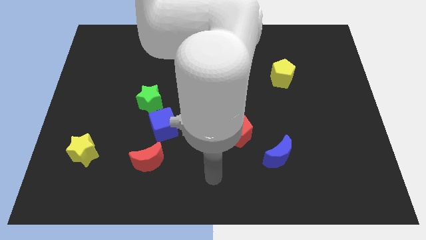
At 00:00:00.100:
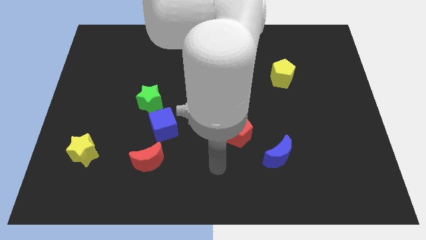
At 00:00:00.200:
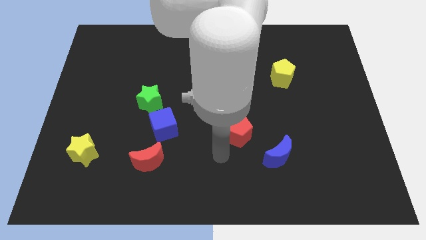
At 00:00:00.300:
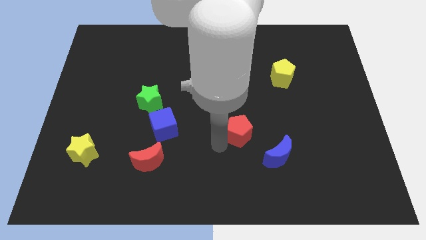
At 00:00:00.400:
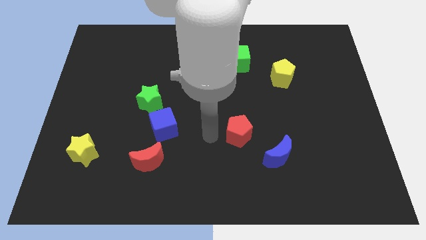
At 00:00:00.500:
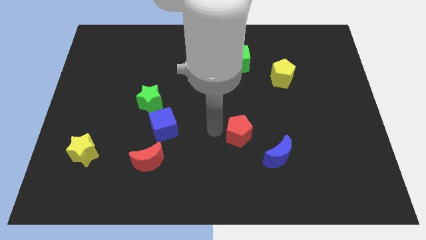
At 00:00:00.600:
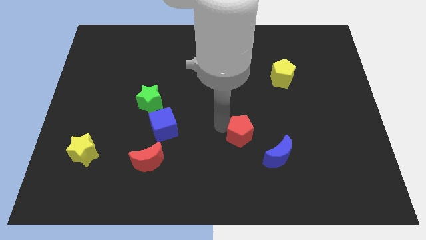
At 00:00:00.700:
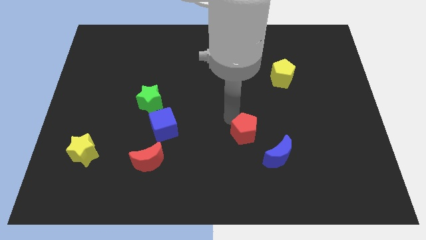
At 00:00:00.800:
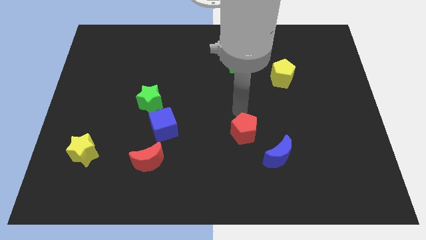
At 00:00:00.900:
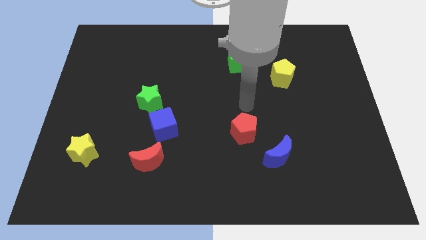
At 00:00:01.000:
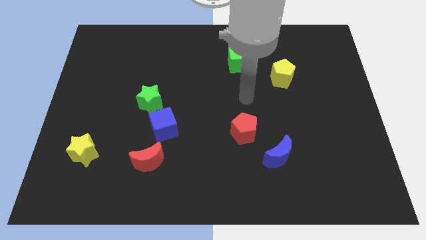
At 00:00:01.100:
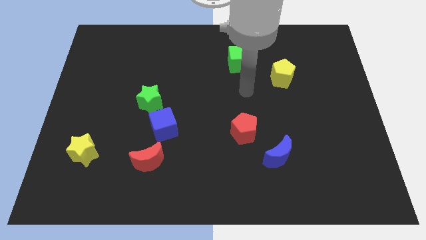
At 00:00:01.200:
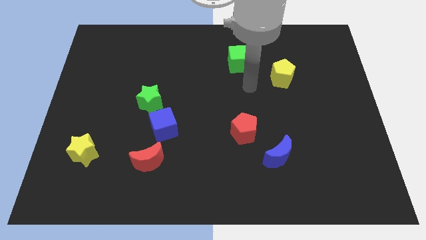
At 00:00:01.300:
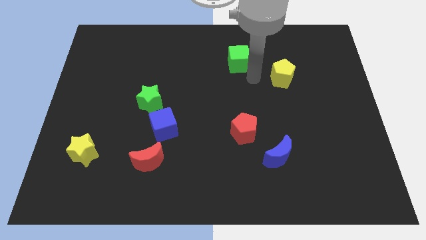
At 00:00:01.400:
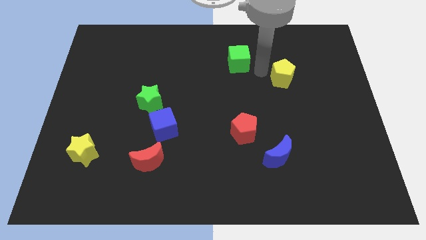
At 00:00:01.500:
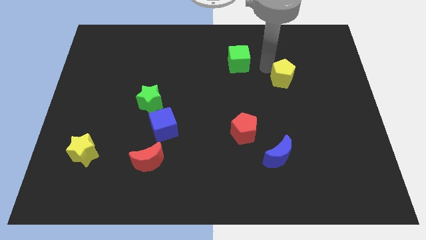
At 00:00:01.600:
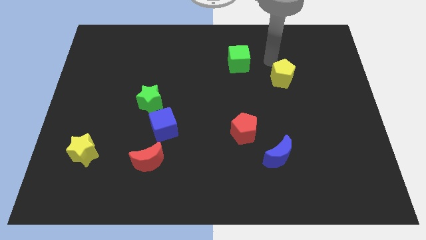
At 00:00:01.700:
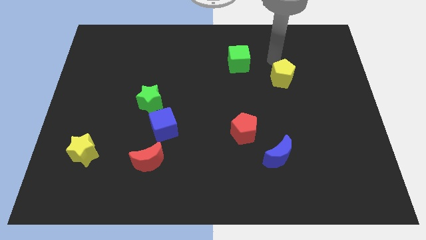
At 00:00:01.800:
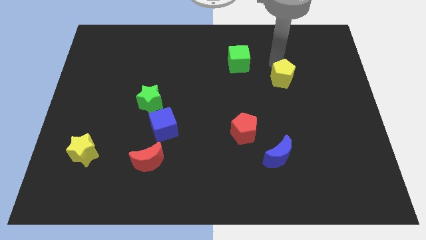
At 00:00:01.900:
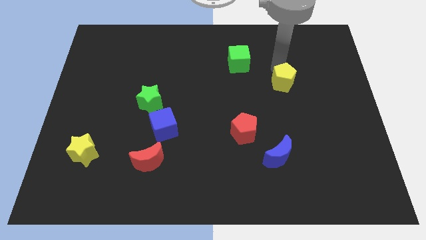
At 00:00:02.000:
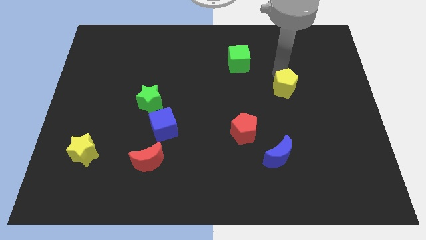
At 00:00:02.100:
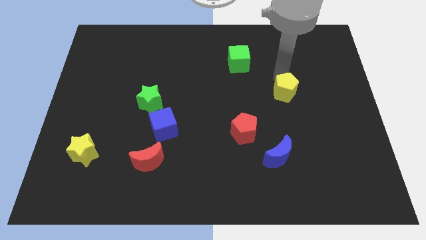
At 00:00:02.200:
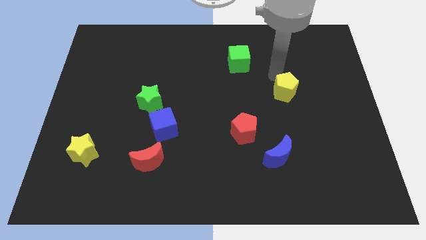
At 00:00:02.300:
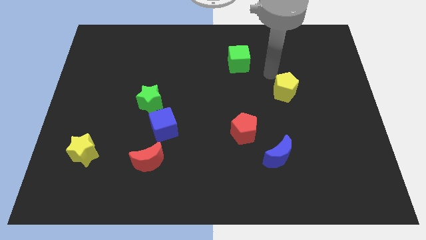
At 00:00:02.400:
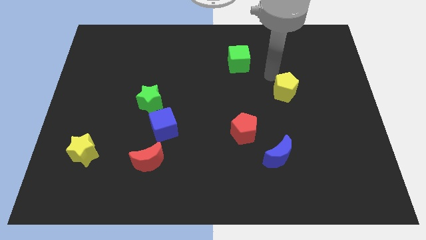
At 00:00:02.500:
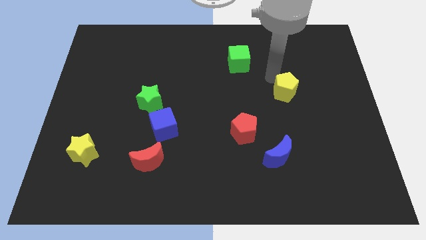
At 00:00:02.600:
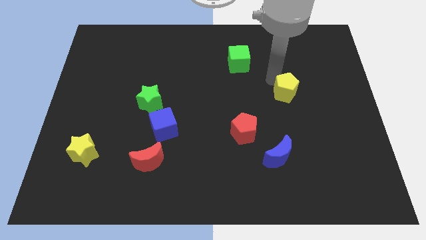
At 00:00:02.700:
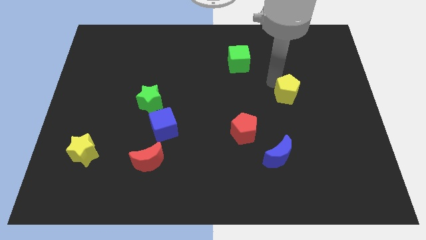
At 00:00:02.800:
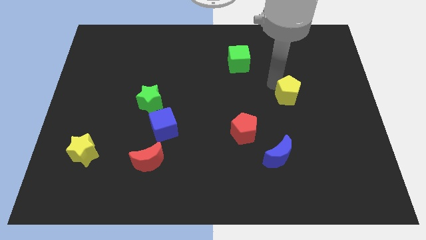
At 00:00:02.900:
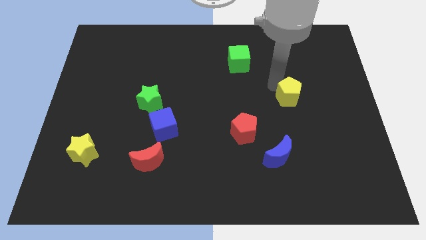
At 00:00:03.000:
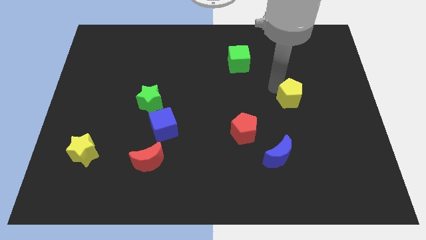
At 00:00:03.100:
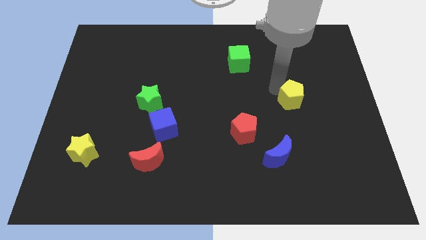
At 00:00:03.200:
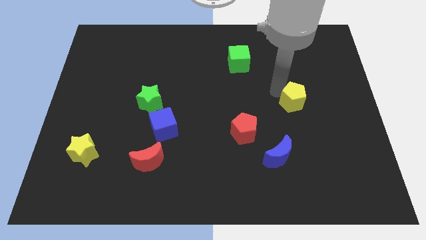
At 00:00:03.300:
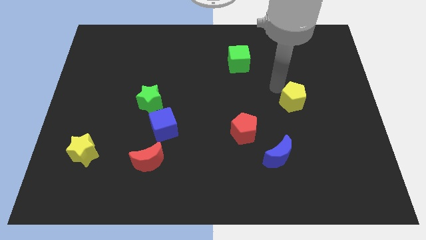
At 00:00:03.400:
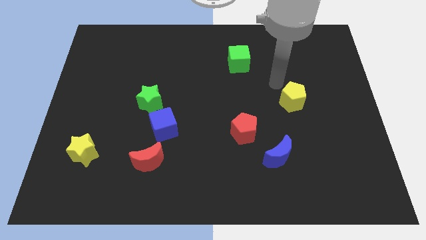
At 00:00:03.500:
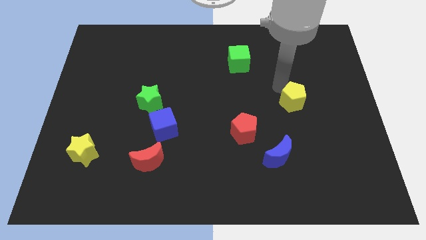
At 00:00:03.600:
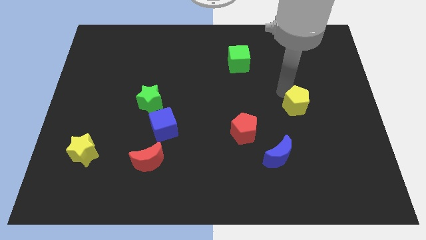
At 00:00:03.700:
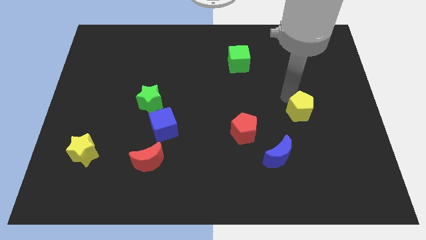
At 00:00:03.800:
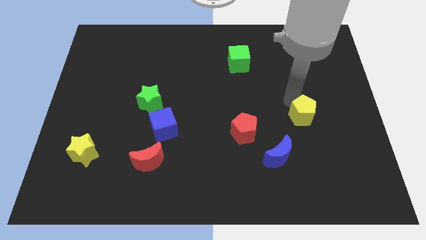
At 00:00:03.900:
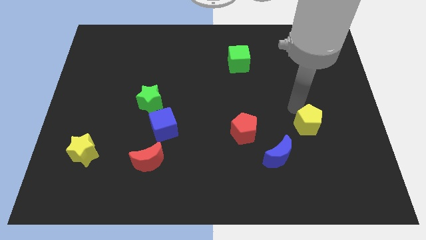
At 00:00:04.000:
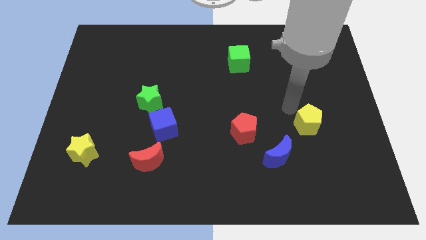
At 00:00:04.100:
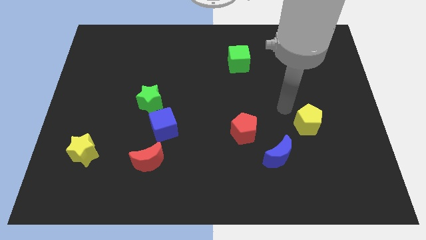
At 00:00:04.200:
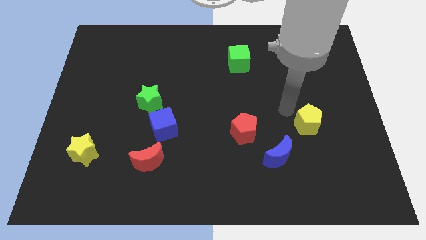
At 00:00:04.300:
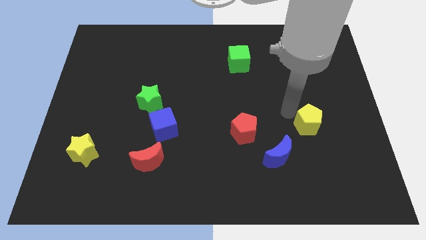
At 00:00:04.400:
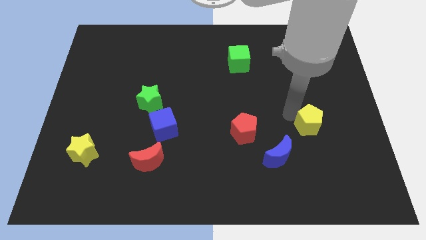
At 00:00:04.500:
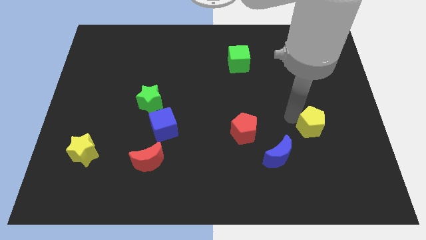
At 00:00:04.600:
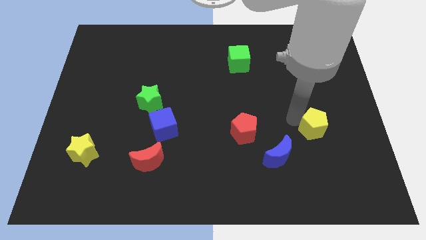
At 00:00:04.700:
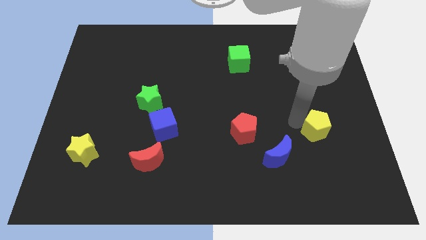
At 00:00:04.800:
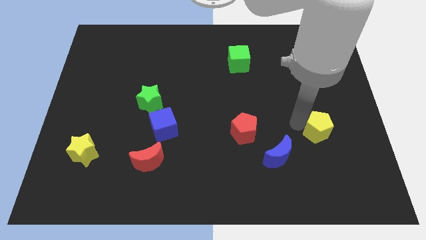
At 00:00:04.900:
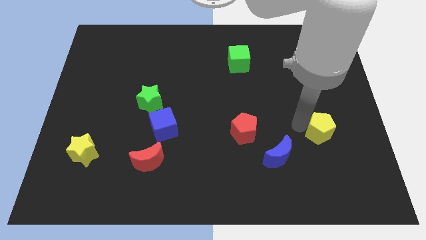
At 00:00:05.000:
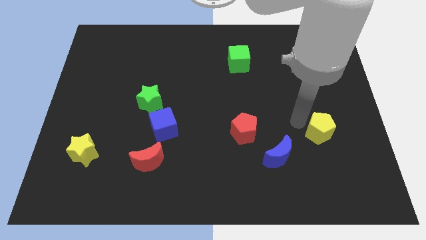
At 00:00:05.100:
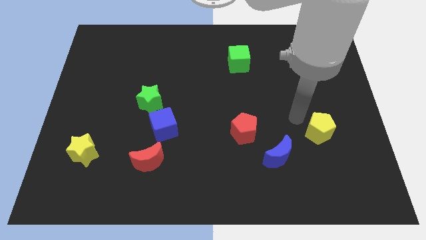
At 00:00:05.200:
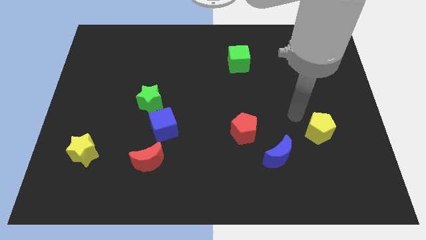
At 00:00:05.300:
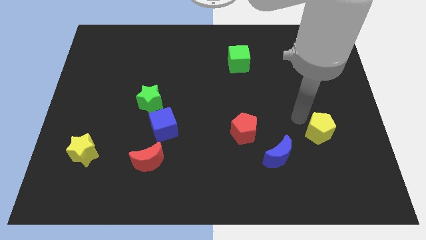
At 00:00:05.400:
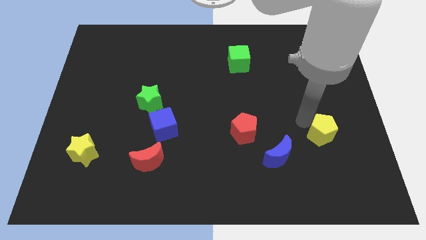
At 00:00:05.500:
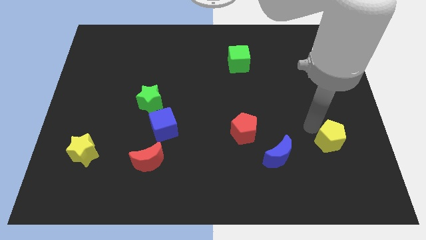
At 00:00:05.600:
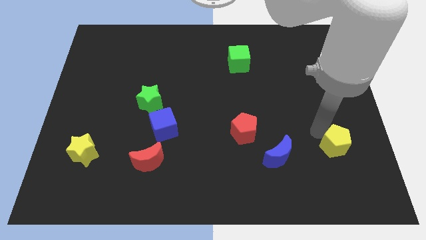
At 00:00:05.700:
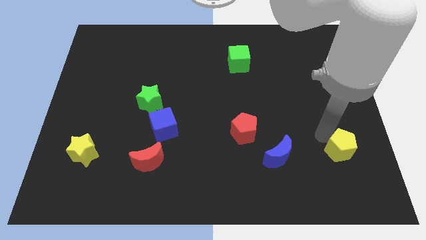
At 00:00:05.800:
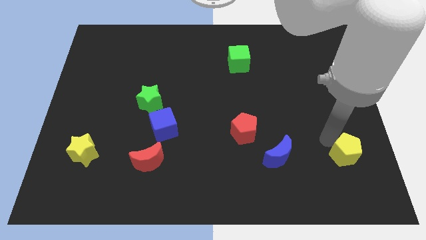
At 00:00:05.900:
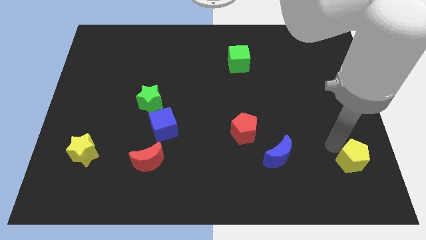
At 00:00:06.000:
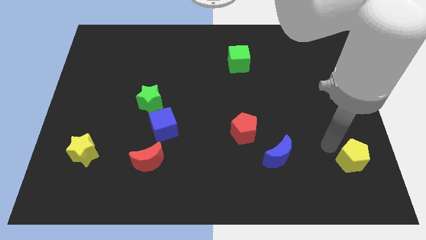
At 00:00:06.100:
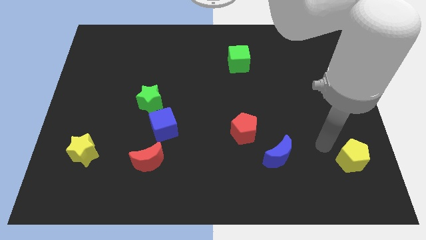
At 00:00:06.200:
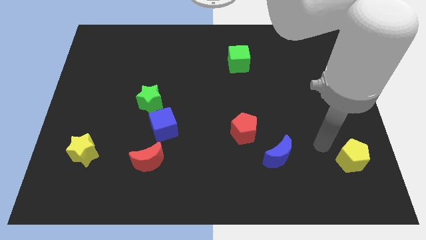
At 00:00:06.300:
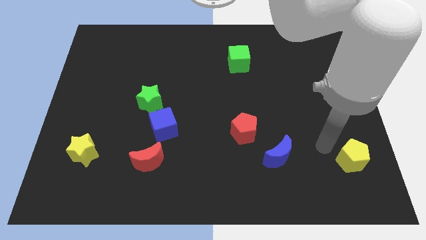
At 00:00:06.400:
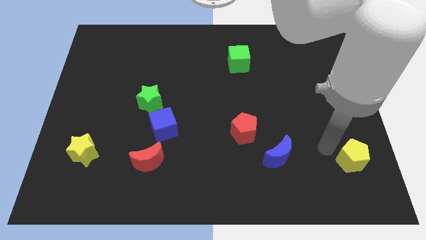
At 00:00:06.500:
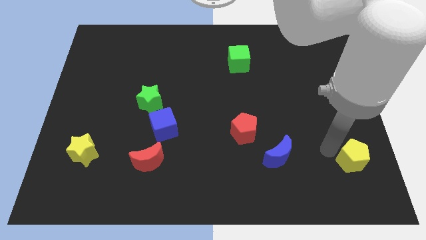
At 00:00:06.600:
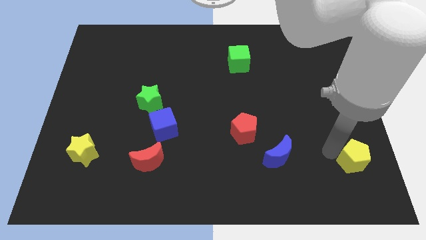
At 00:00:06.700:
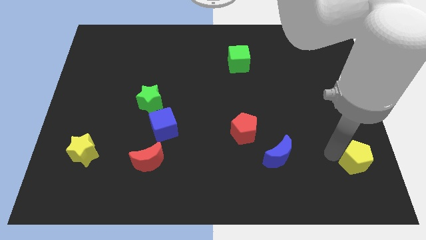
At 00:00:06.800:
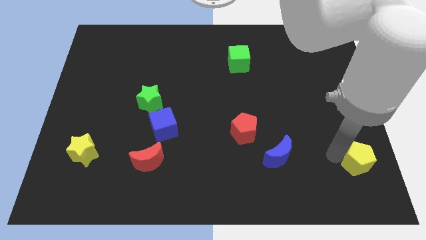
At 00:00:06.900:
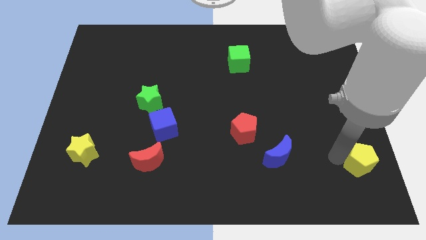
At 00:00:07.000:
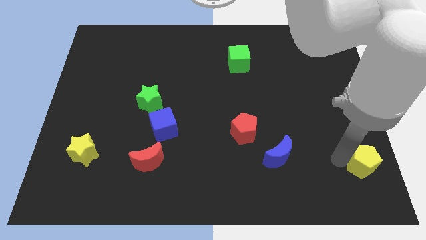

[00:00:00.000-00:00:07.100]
move the yellow pentagon to the bottom right of the board

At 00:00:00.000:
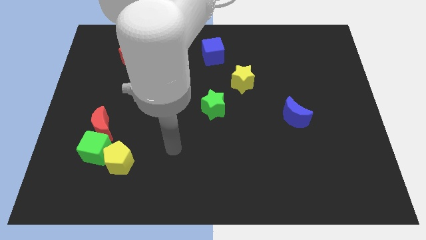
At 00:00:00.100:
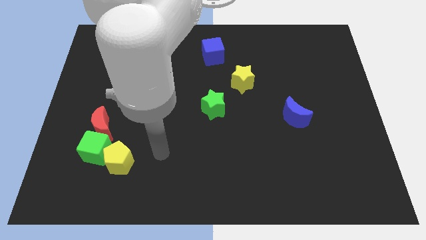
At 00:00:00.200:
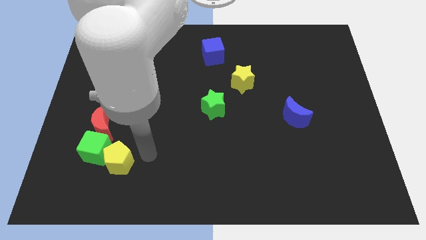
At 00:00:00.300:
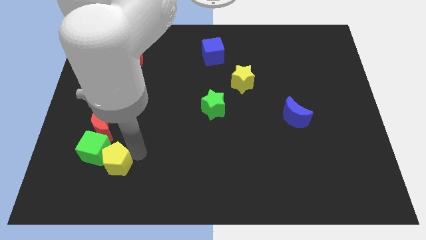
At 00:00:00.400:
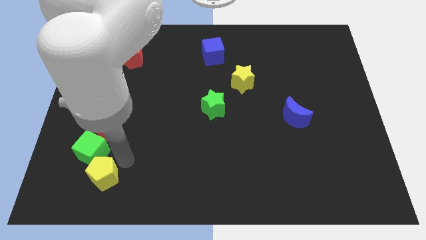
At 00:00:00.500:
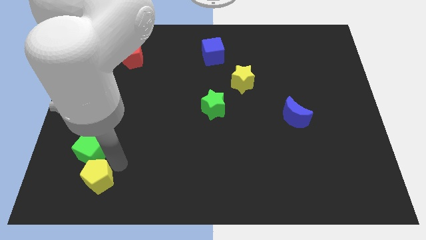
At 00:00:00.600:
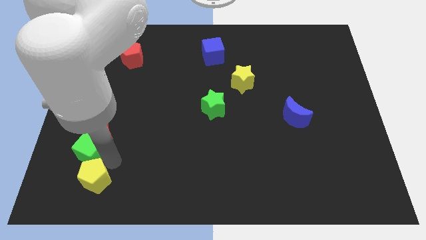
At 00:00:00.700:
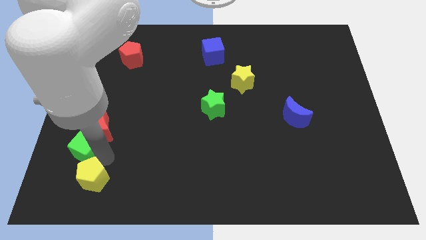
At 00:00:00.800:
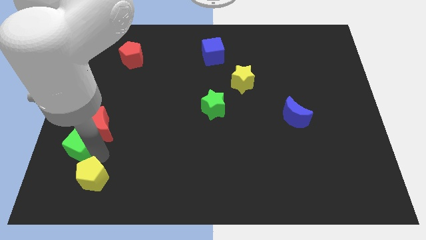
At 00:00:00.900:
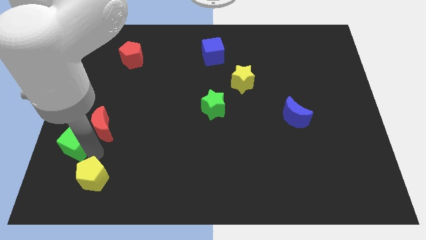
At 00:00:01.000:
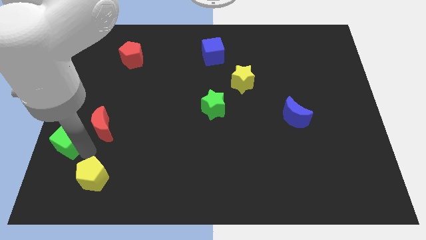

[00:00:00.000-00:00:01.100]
move the green cube to the left side of the board
